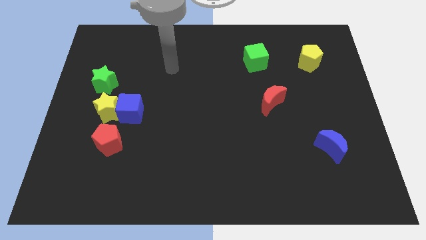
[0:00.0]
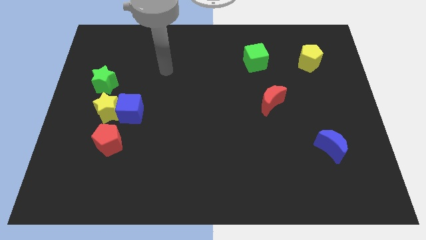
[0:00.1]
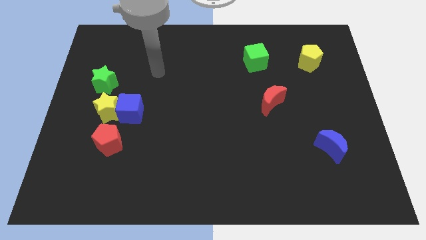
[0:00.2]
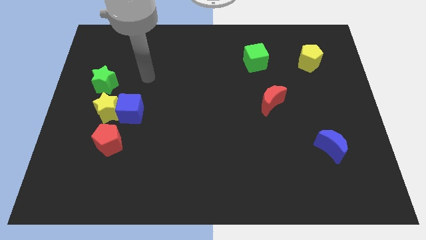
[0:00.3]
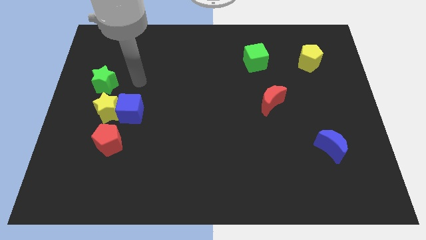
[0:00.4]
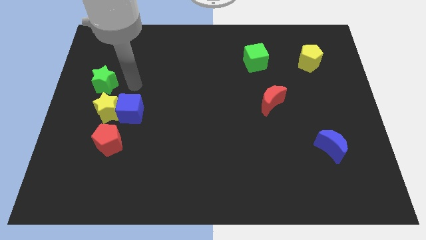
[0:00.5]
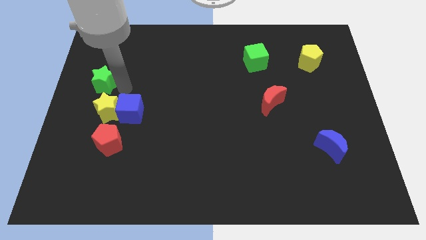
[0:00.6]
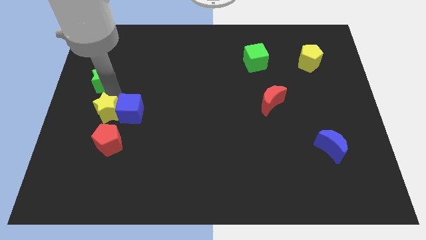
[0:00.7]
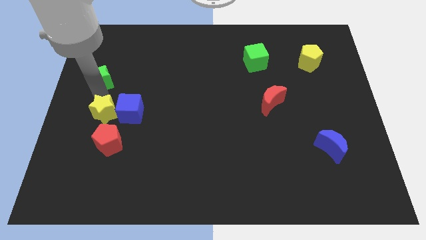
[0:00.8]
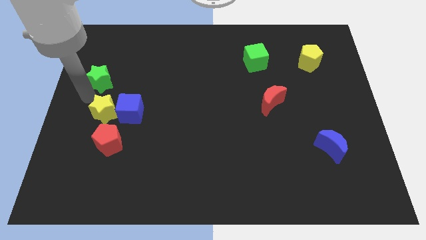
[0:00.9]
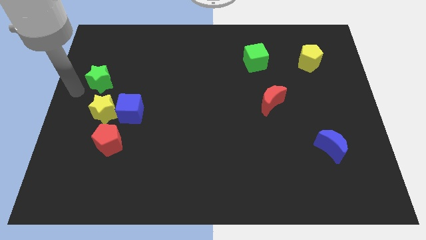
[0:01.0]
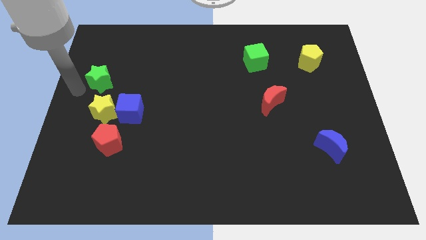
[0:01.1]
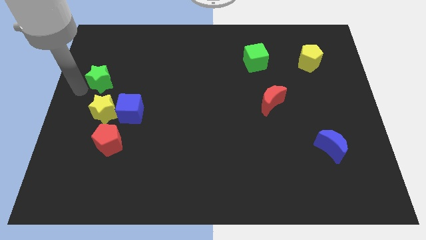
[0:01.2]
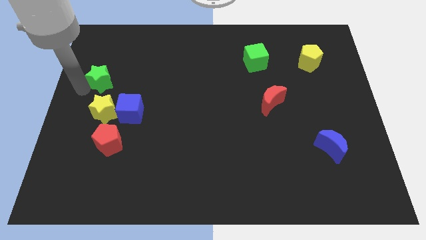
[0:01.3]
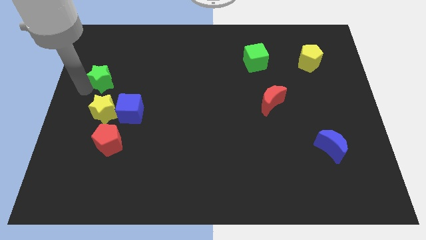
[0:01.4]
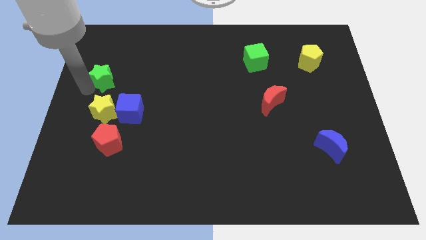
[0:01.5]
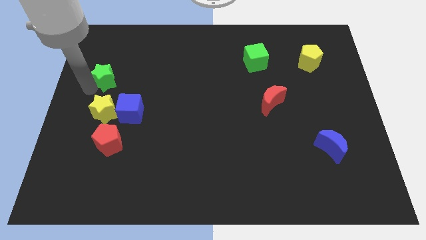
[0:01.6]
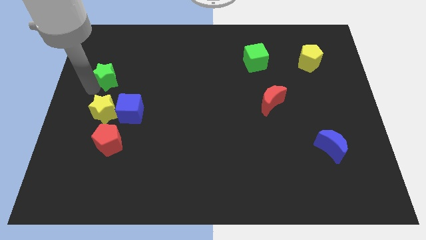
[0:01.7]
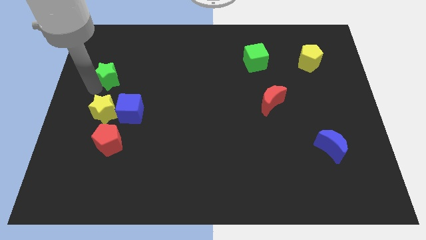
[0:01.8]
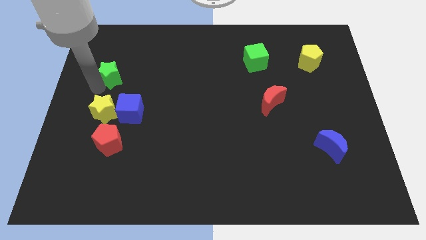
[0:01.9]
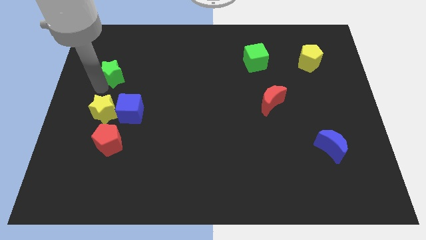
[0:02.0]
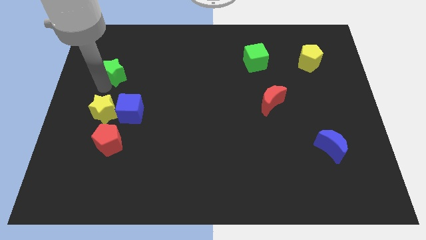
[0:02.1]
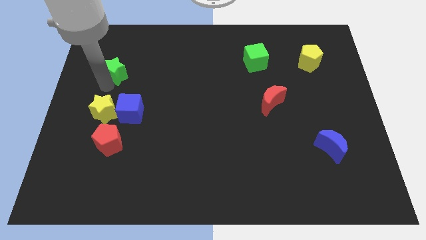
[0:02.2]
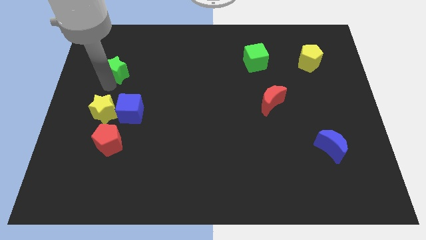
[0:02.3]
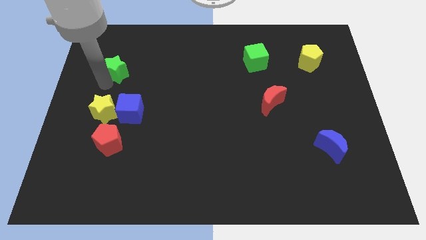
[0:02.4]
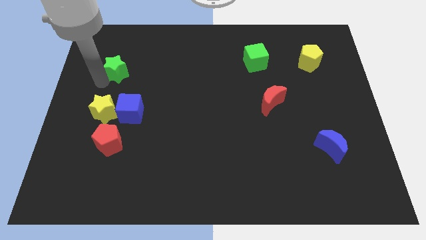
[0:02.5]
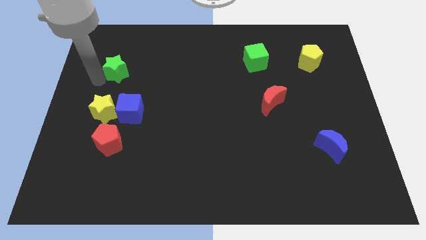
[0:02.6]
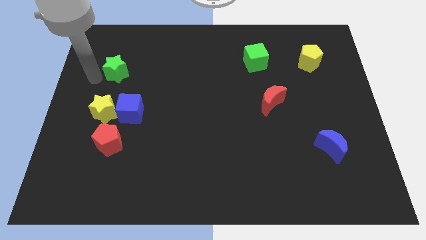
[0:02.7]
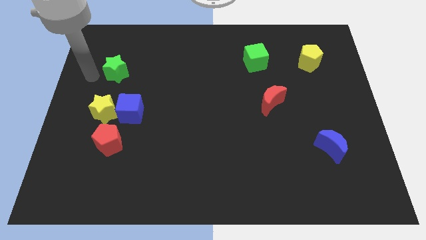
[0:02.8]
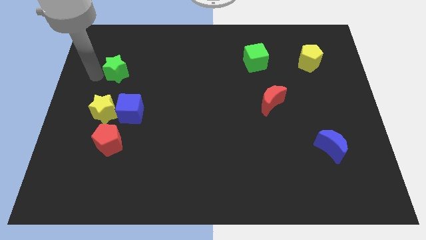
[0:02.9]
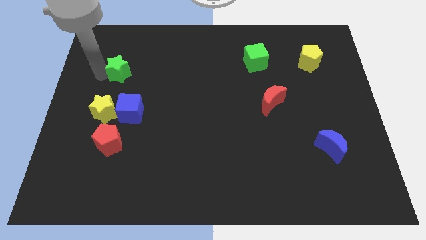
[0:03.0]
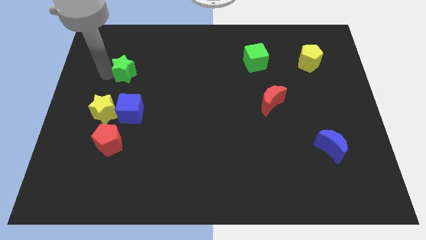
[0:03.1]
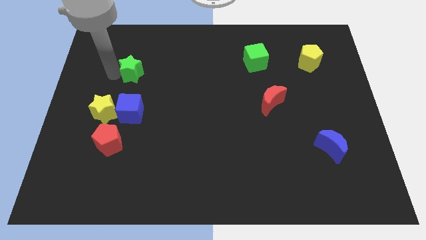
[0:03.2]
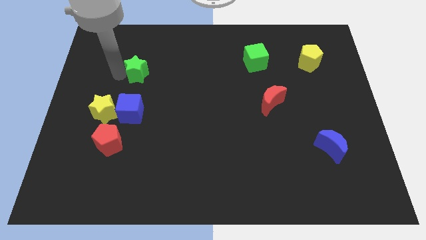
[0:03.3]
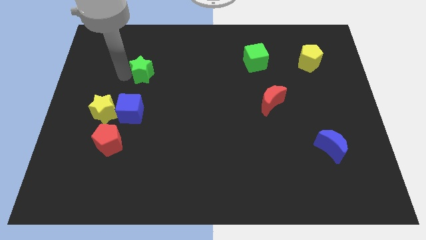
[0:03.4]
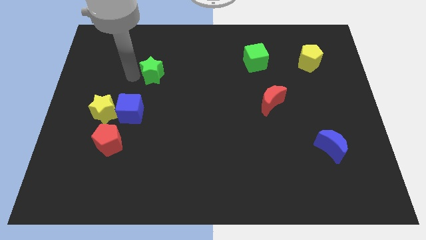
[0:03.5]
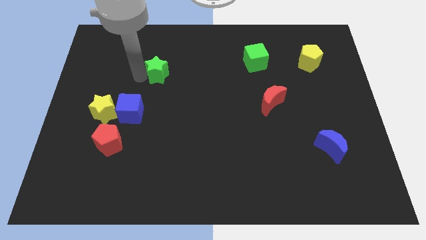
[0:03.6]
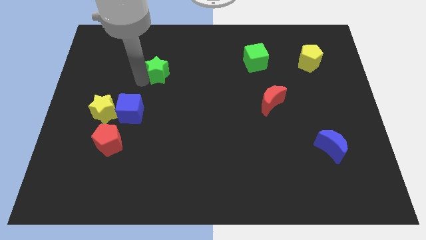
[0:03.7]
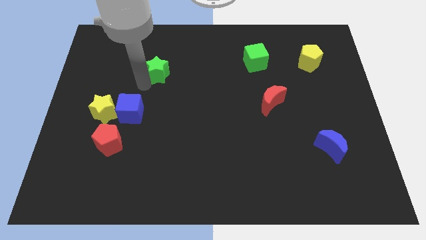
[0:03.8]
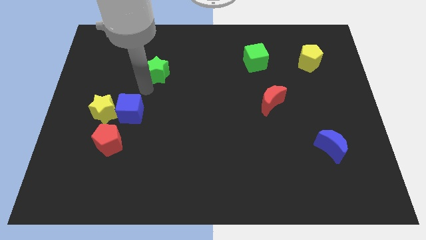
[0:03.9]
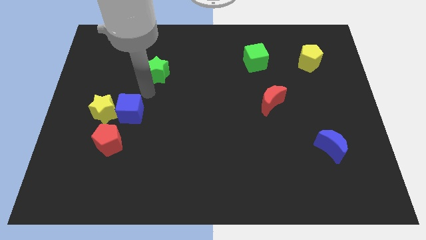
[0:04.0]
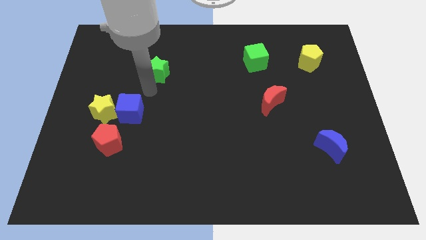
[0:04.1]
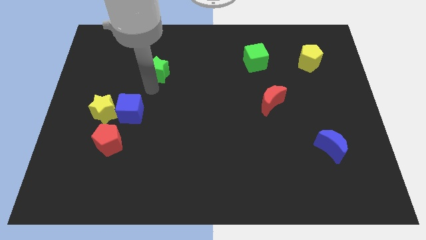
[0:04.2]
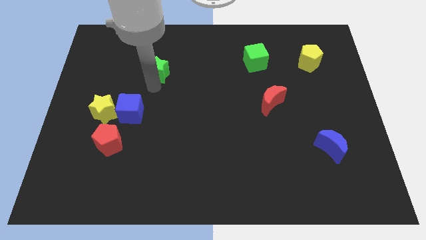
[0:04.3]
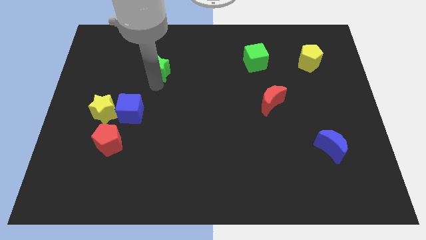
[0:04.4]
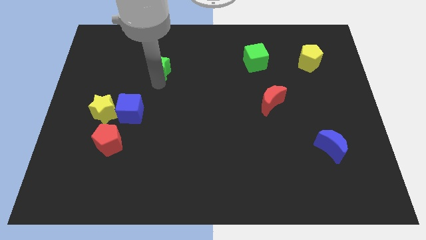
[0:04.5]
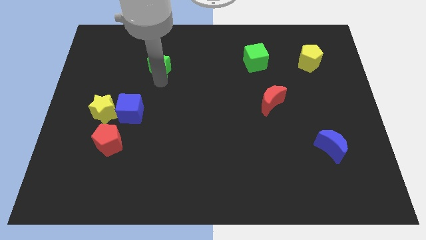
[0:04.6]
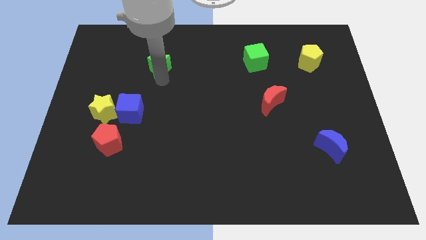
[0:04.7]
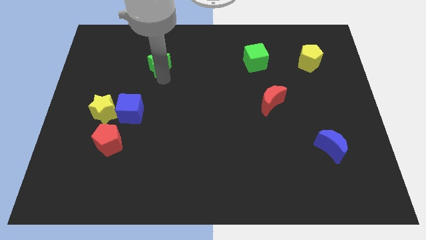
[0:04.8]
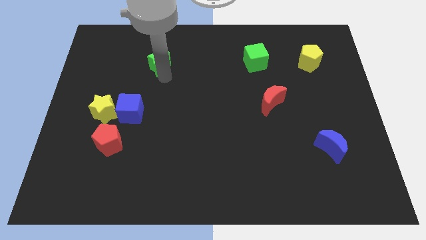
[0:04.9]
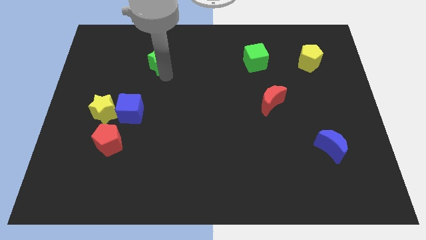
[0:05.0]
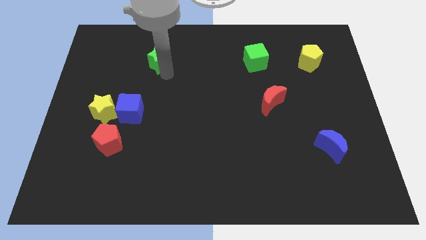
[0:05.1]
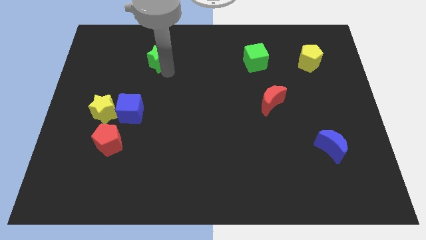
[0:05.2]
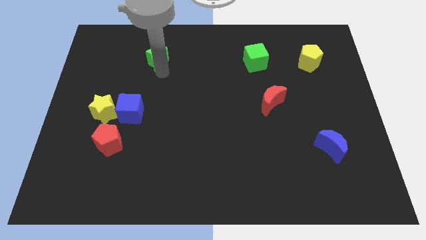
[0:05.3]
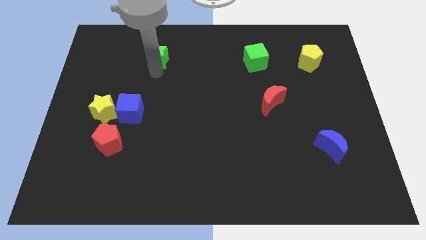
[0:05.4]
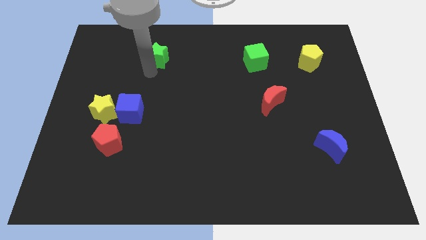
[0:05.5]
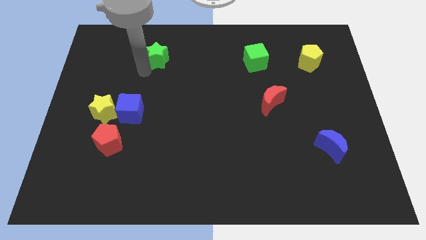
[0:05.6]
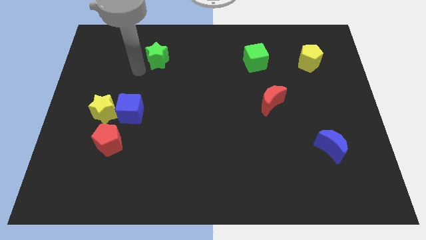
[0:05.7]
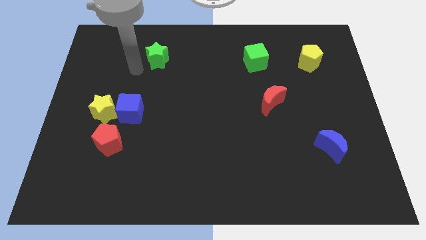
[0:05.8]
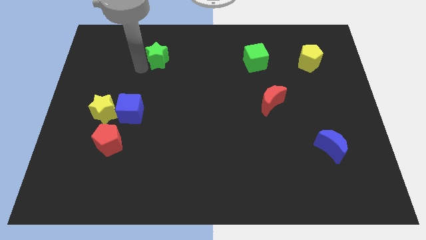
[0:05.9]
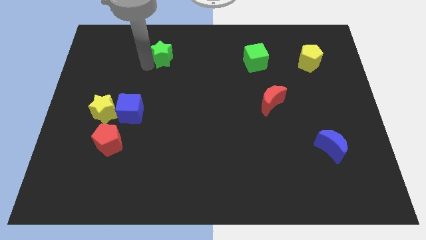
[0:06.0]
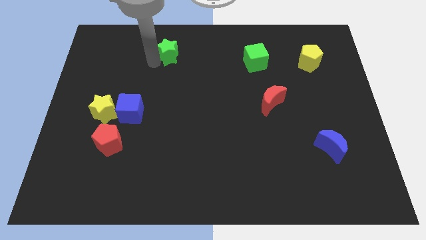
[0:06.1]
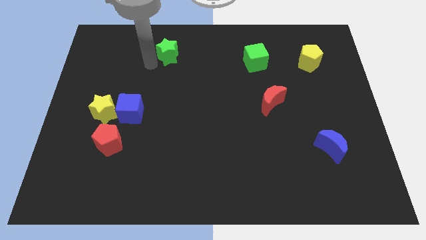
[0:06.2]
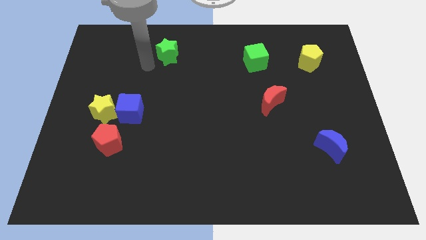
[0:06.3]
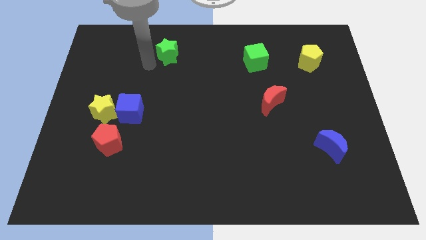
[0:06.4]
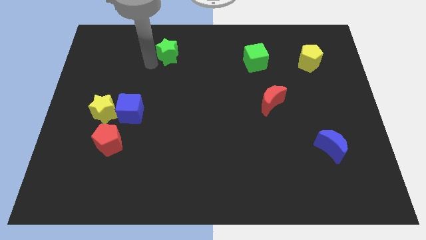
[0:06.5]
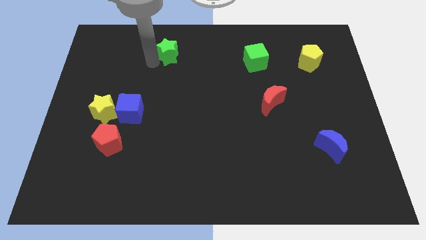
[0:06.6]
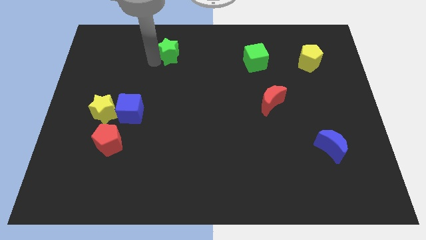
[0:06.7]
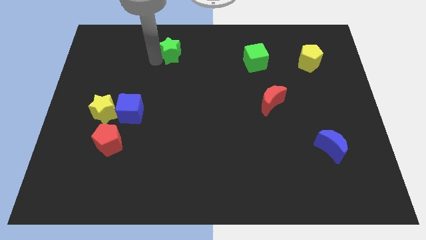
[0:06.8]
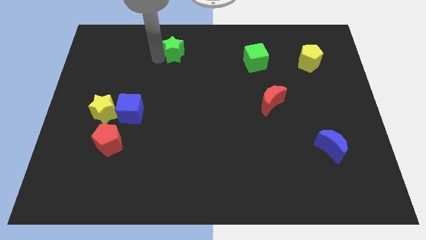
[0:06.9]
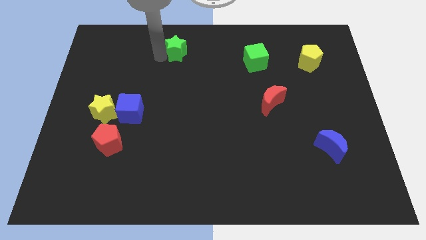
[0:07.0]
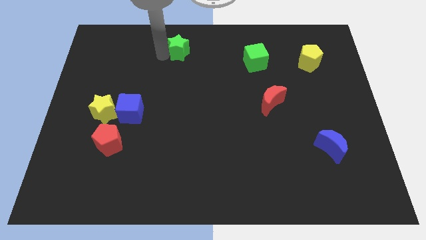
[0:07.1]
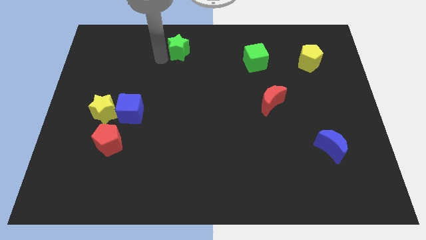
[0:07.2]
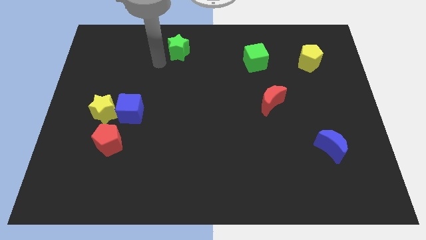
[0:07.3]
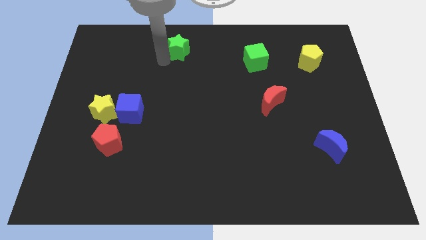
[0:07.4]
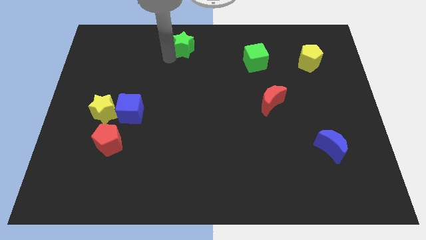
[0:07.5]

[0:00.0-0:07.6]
push the green star to the towards your base
